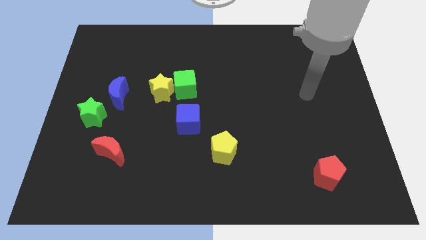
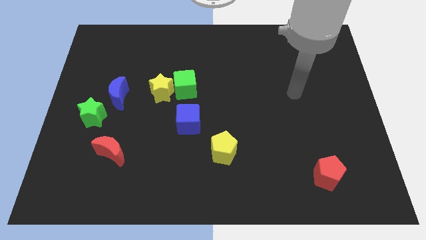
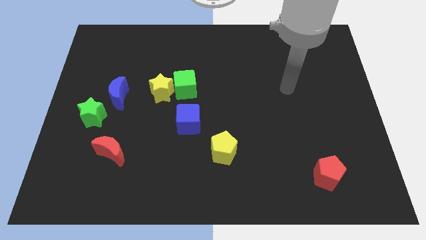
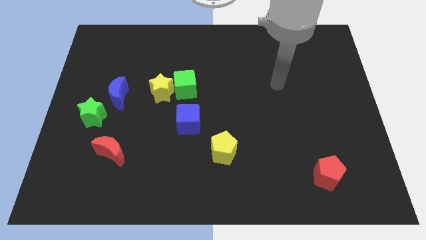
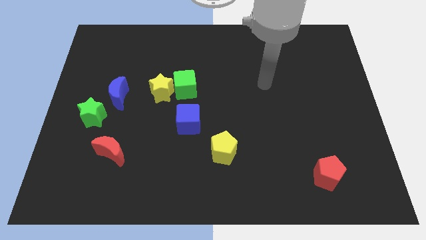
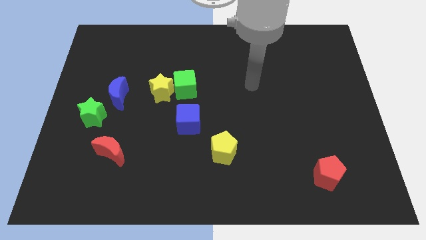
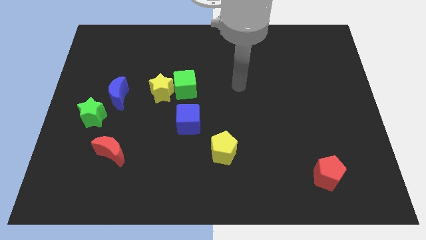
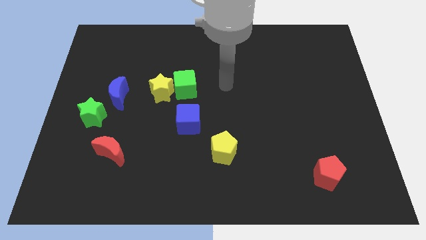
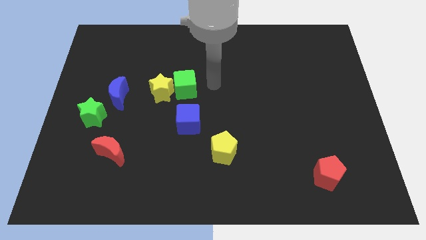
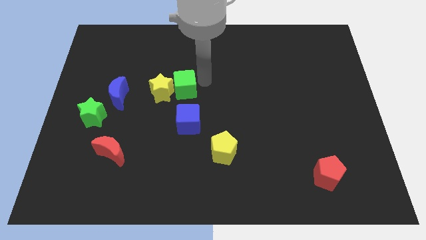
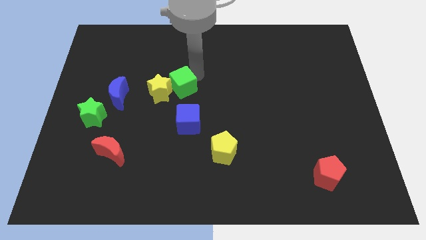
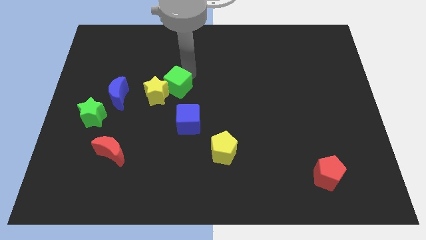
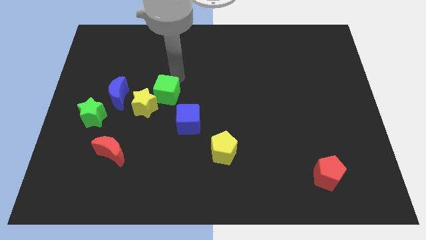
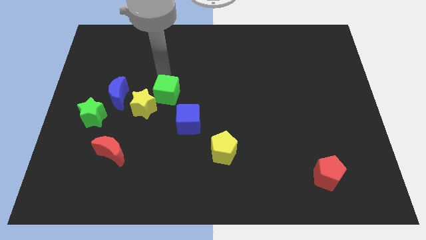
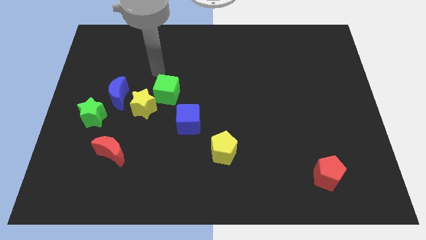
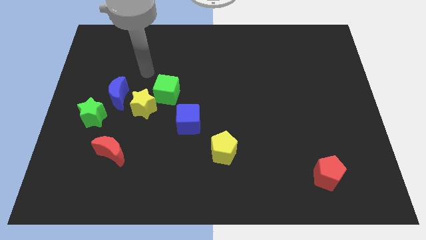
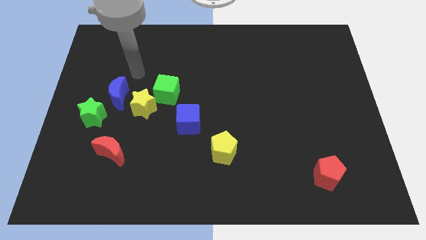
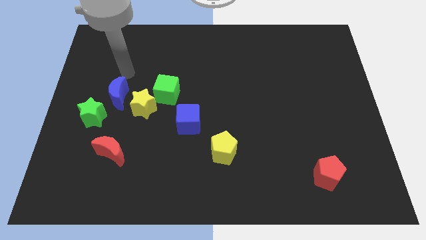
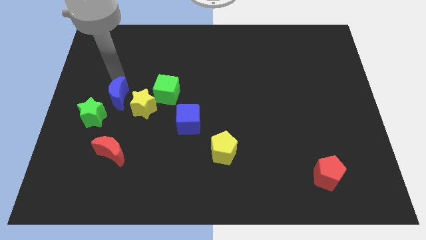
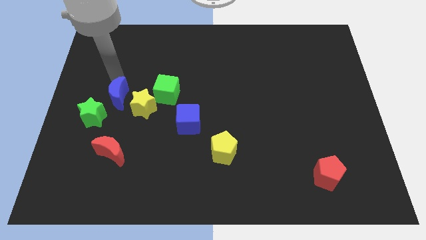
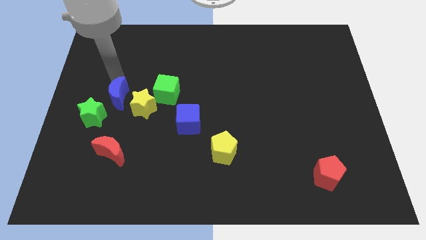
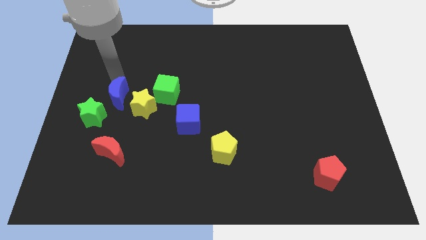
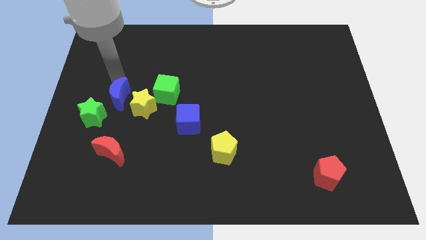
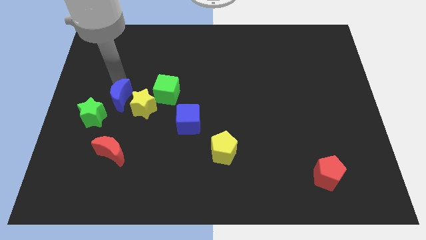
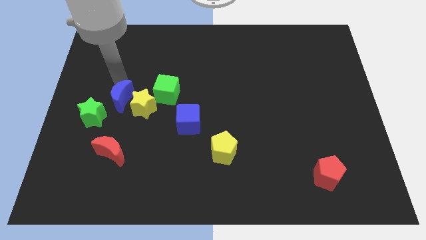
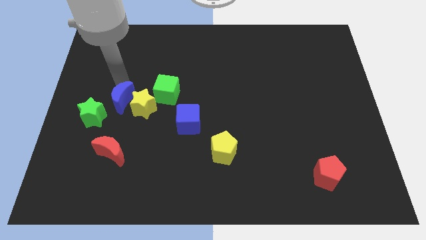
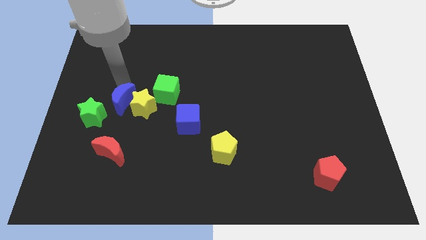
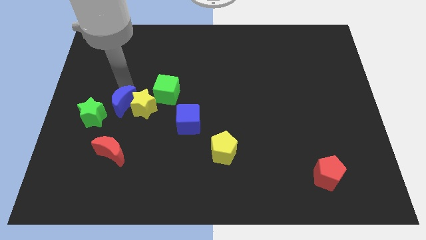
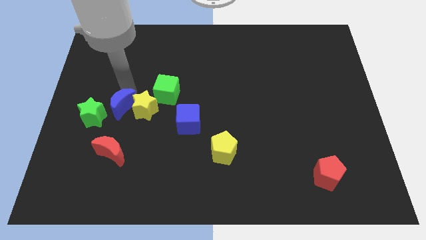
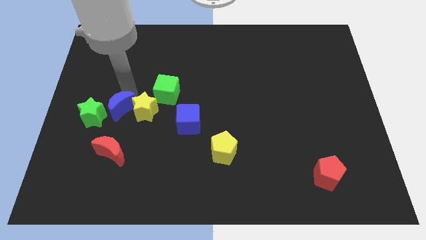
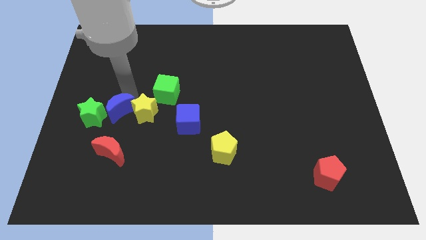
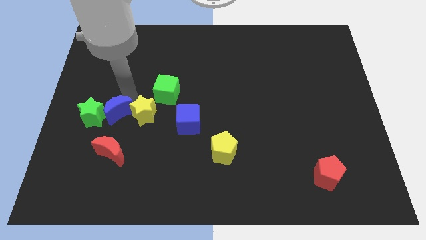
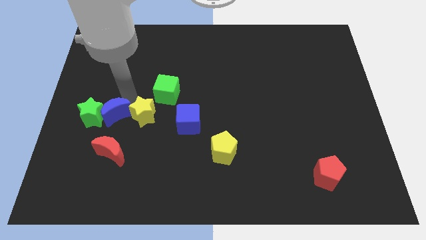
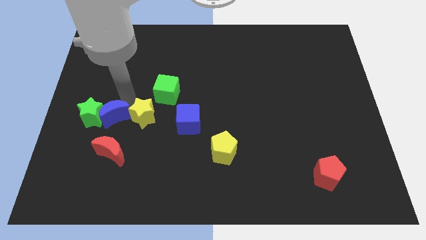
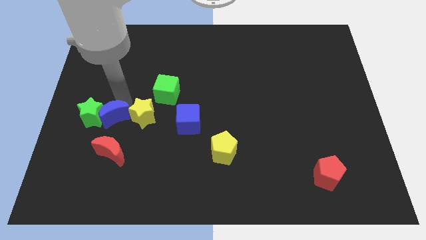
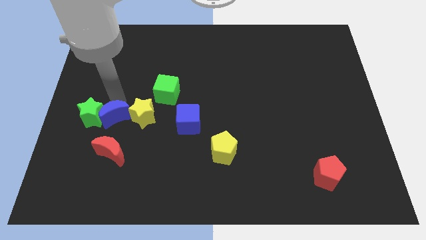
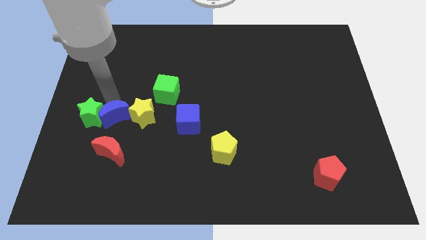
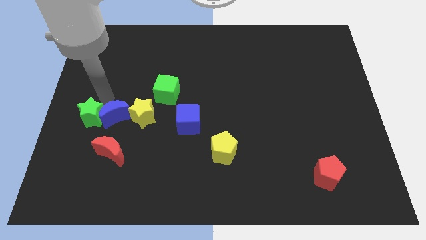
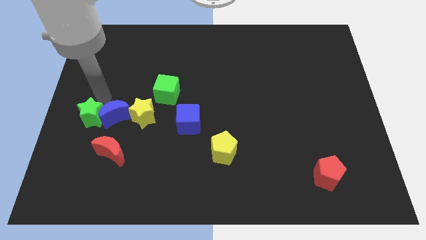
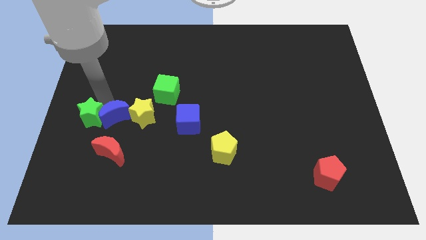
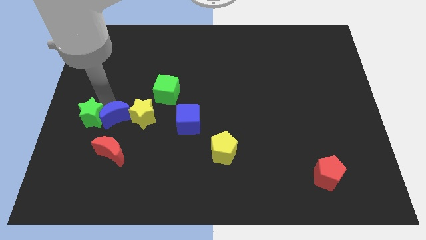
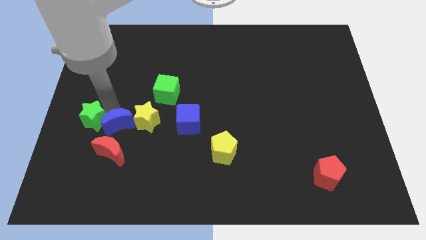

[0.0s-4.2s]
slide the blue moon down a little

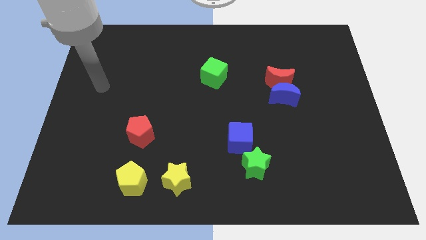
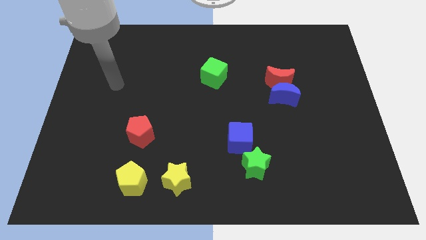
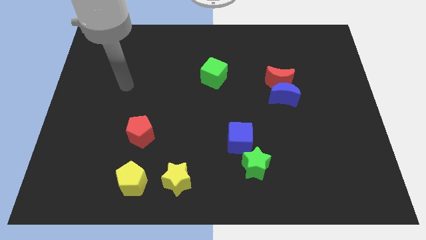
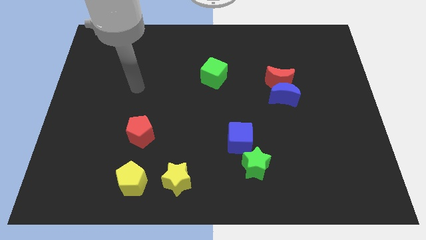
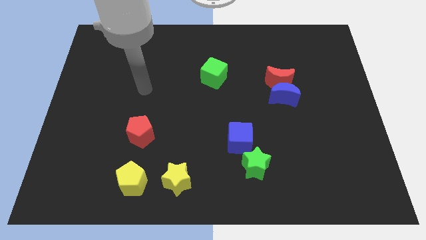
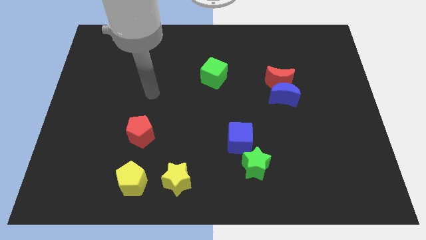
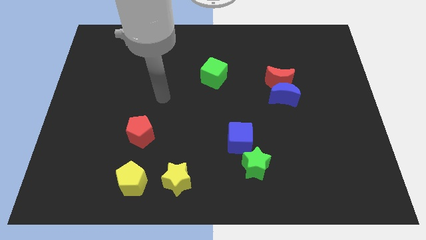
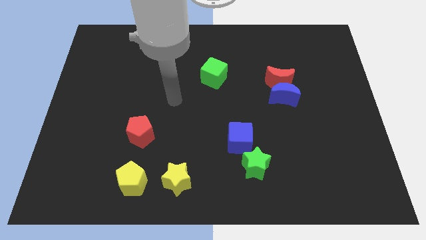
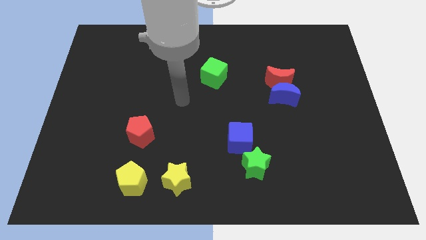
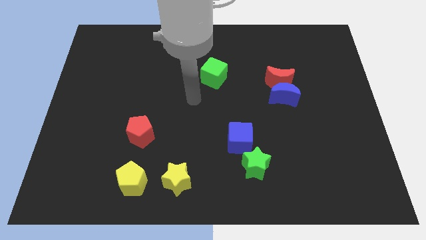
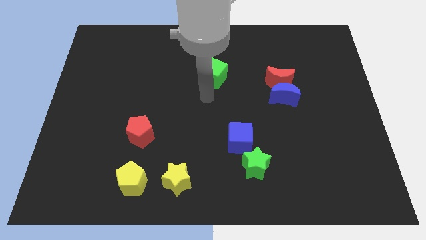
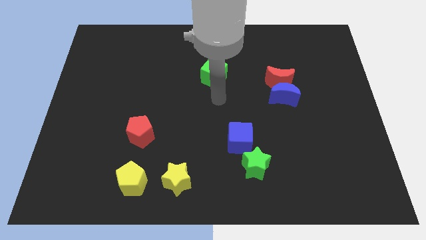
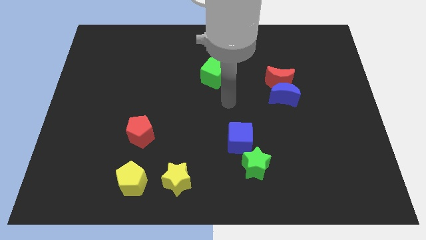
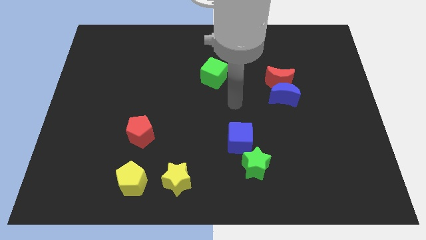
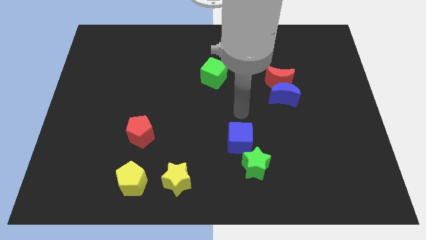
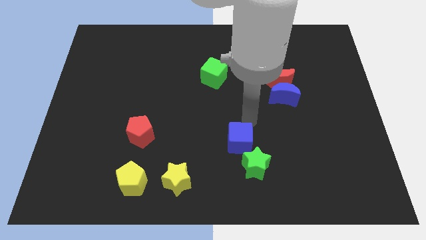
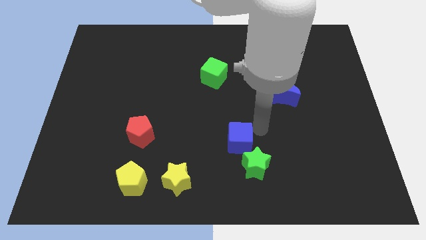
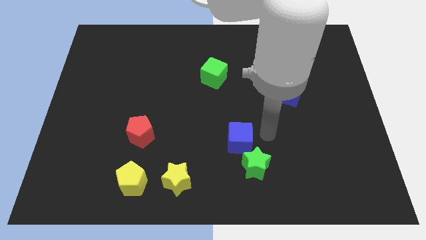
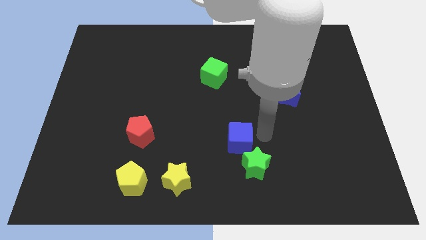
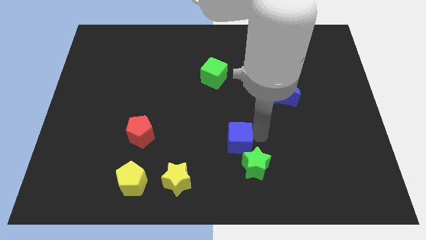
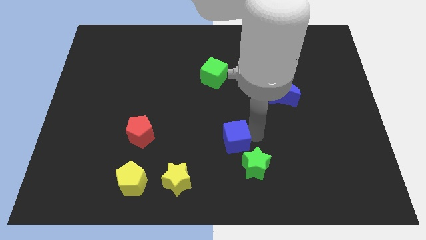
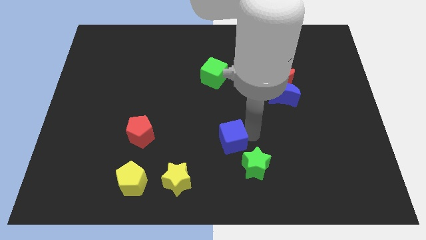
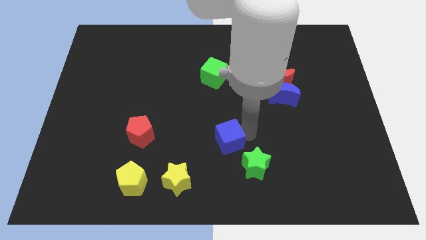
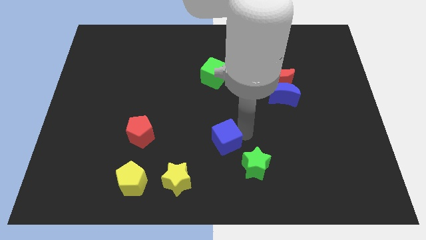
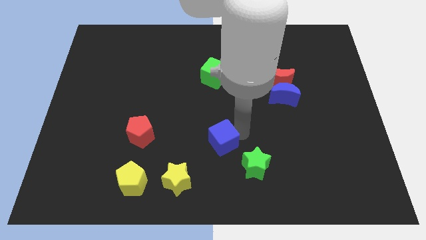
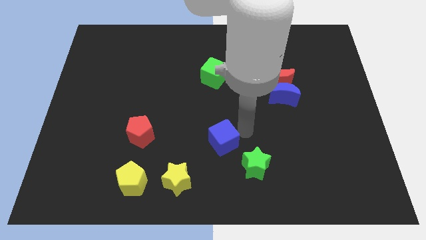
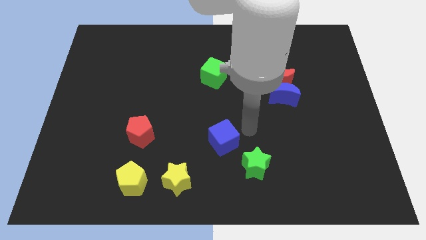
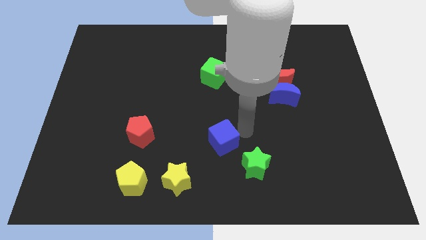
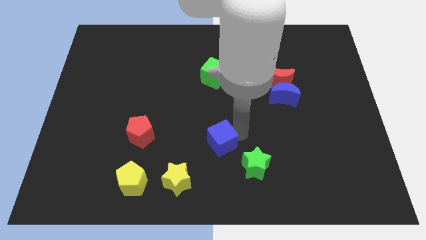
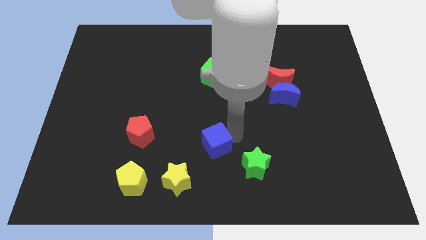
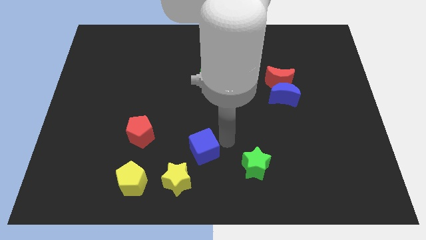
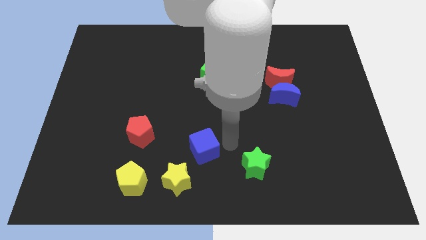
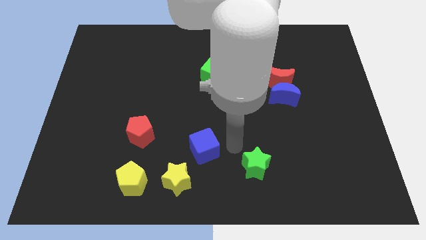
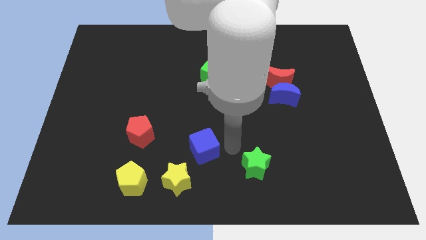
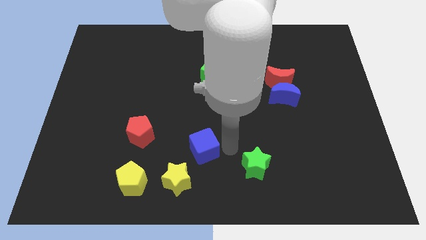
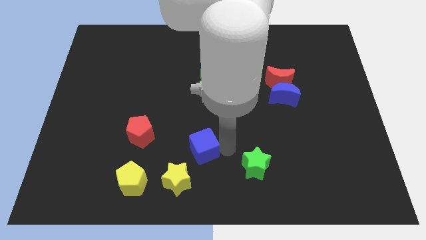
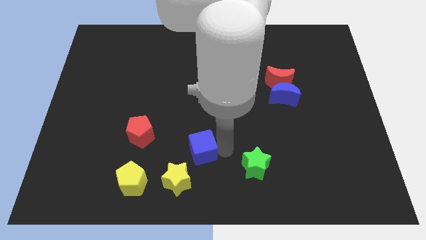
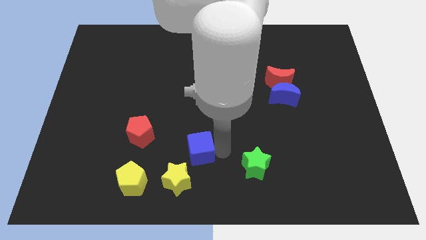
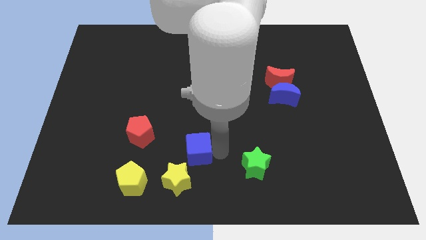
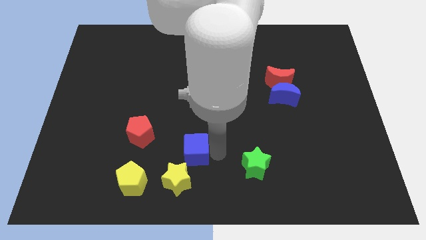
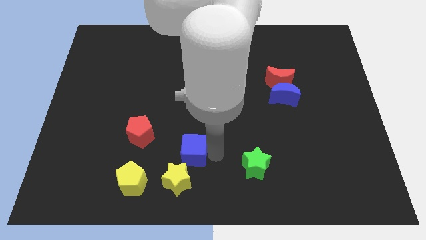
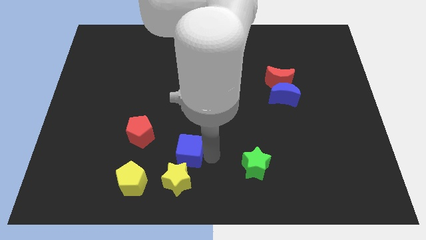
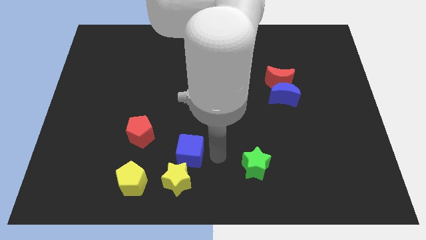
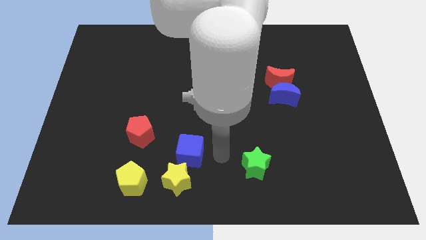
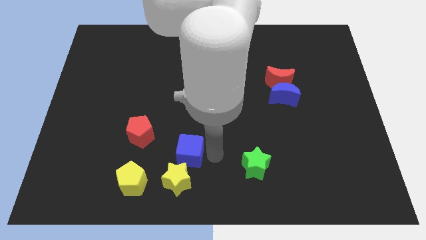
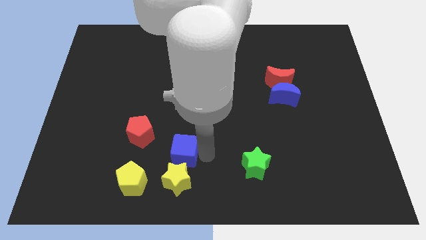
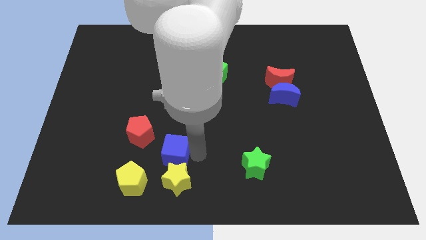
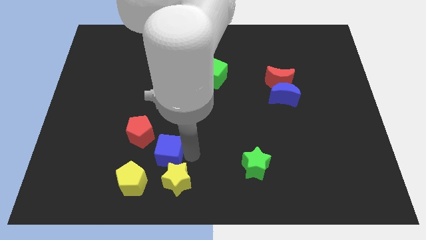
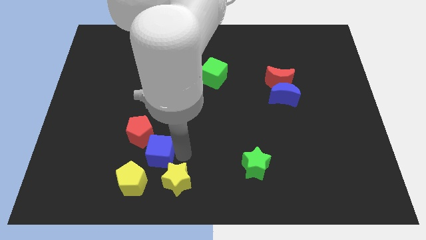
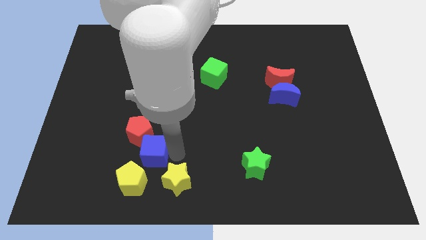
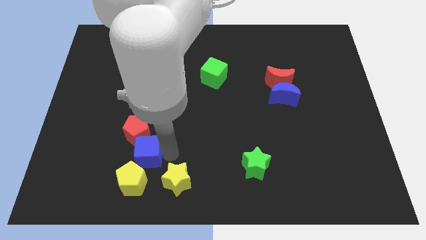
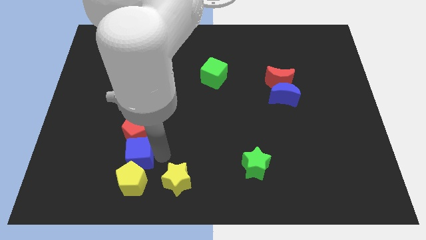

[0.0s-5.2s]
slide the blue cube to the left
